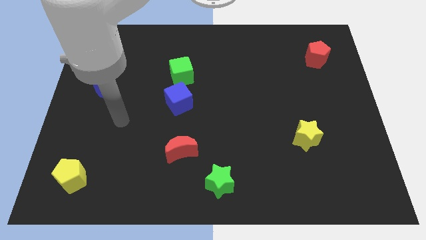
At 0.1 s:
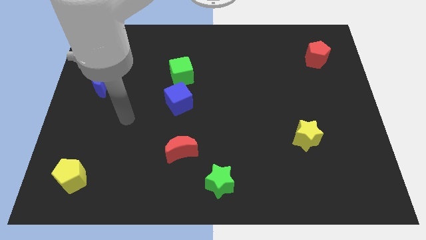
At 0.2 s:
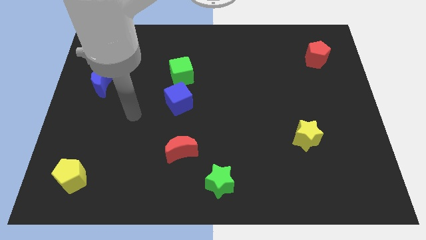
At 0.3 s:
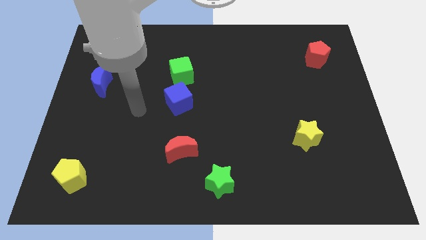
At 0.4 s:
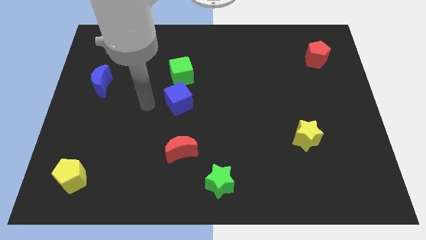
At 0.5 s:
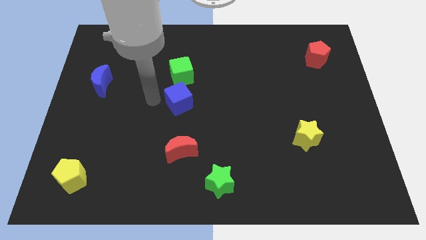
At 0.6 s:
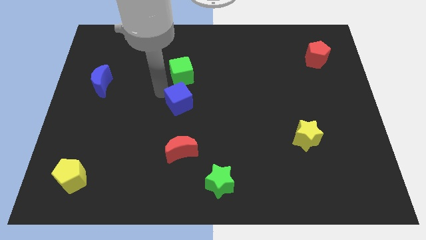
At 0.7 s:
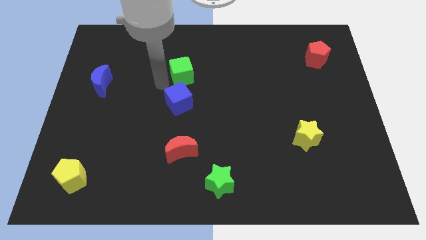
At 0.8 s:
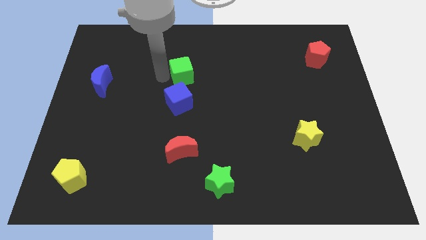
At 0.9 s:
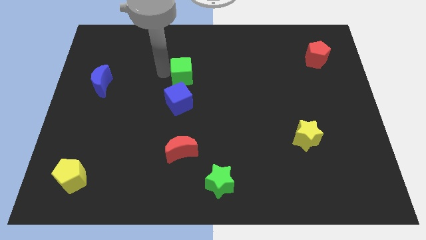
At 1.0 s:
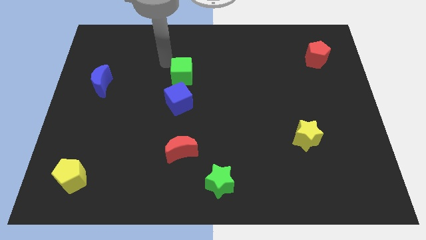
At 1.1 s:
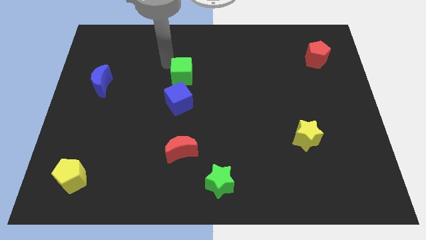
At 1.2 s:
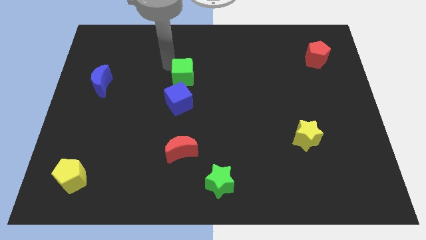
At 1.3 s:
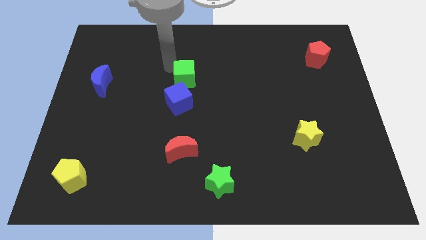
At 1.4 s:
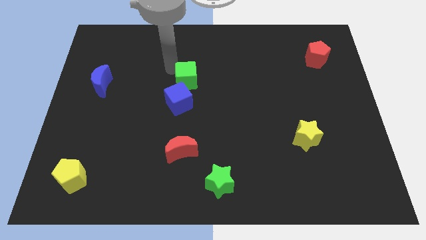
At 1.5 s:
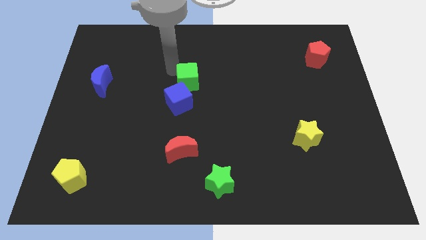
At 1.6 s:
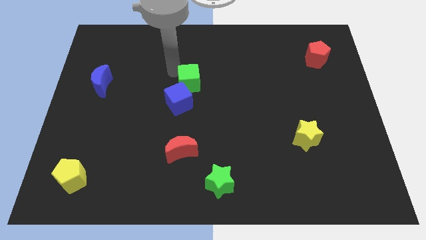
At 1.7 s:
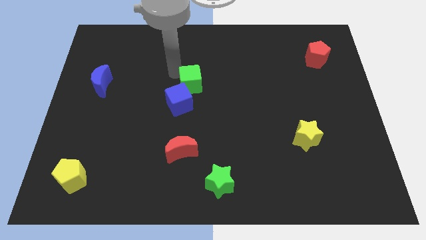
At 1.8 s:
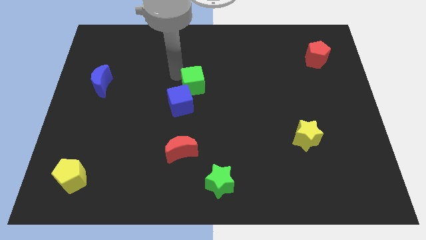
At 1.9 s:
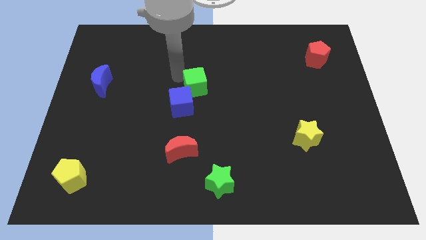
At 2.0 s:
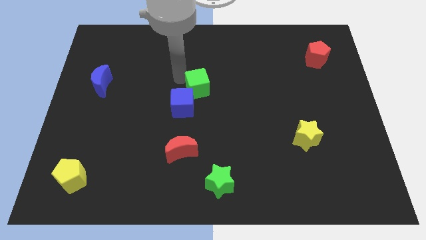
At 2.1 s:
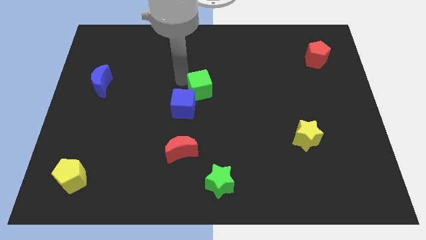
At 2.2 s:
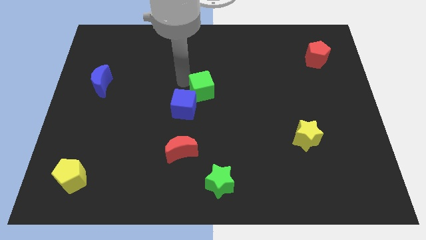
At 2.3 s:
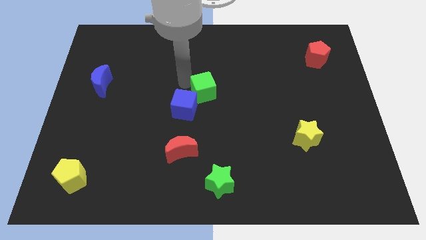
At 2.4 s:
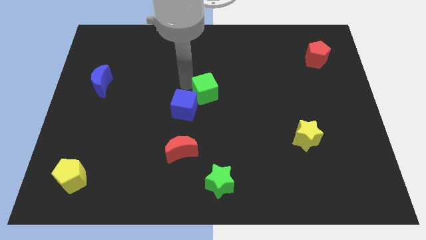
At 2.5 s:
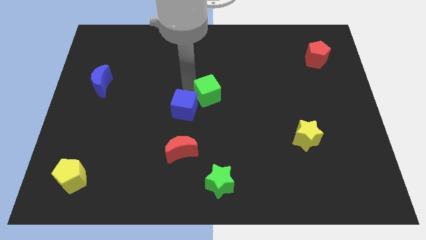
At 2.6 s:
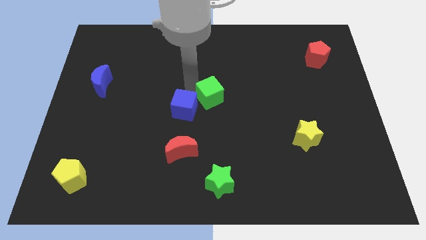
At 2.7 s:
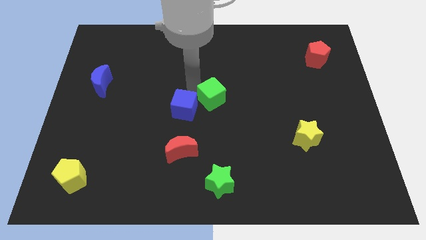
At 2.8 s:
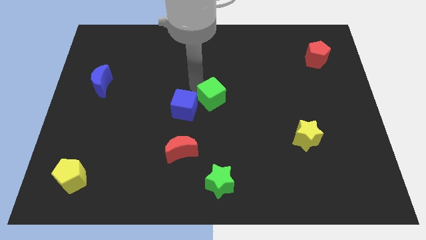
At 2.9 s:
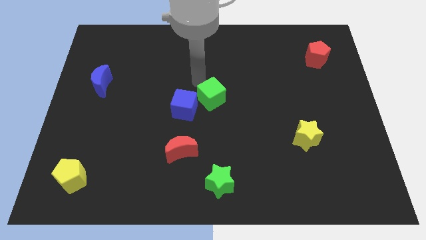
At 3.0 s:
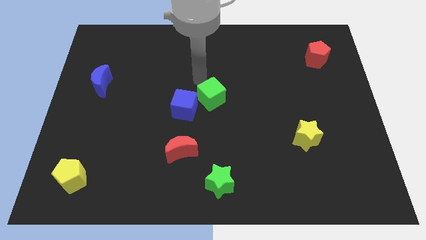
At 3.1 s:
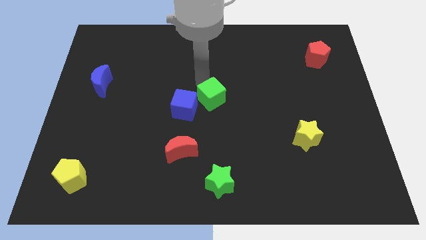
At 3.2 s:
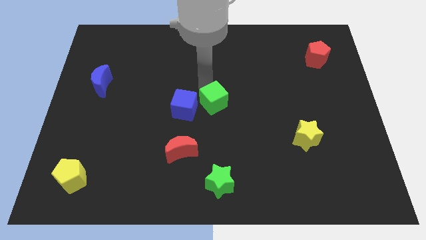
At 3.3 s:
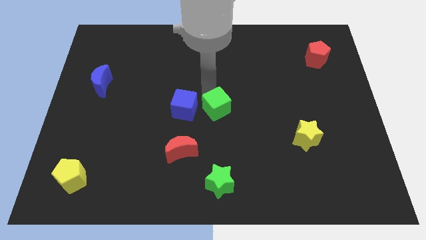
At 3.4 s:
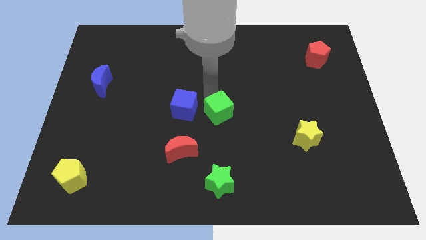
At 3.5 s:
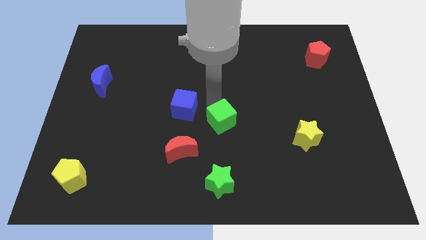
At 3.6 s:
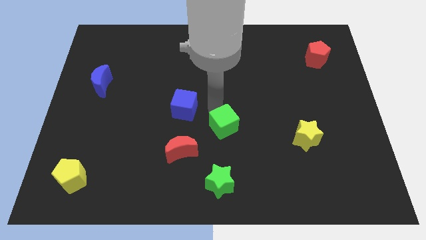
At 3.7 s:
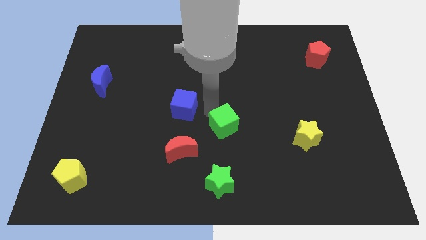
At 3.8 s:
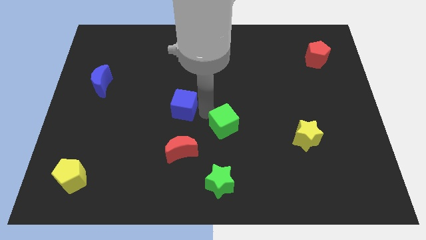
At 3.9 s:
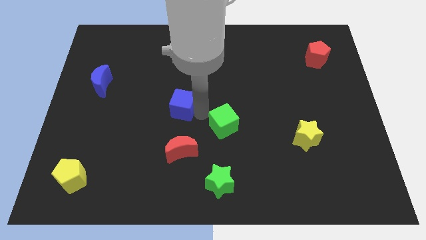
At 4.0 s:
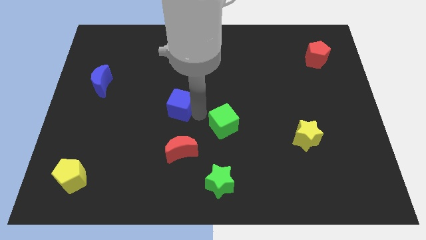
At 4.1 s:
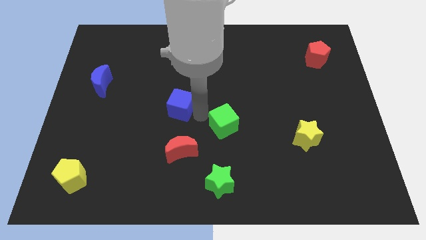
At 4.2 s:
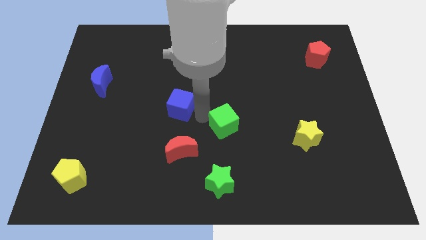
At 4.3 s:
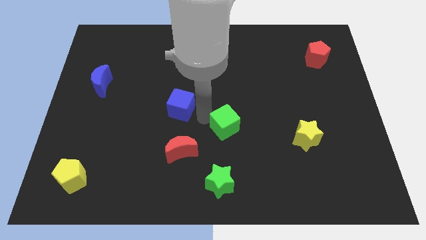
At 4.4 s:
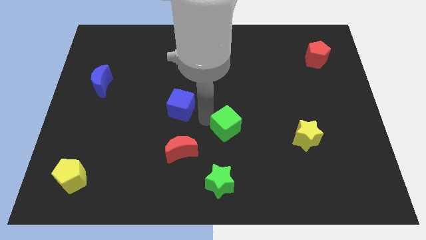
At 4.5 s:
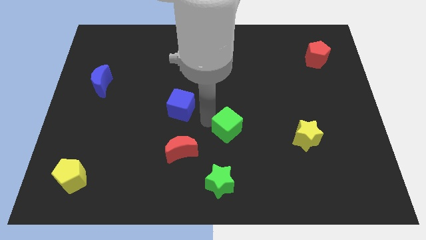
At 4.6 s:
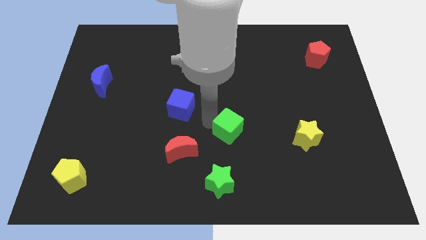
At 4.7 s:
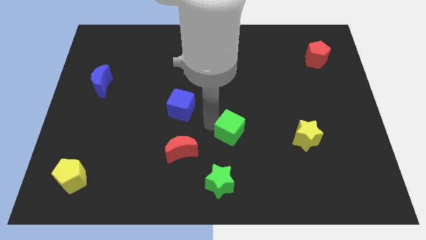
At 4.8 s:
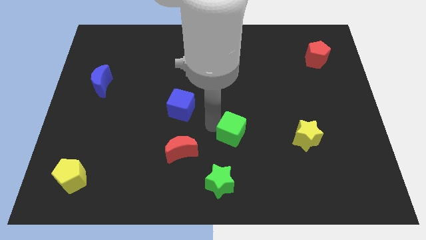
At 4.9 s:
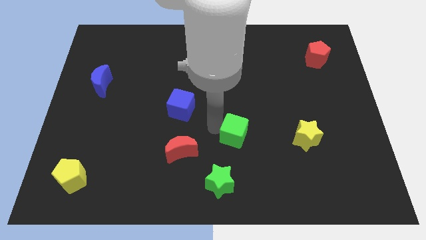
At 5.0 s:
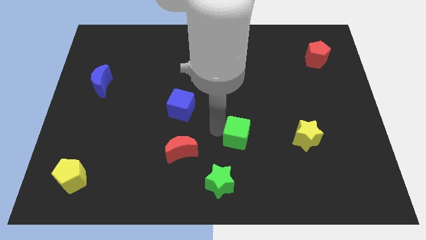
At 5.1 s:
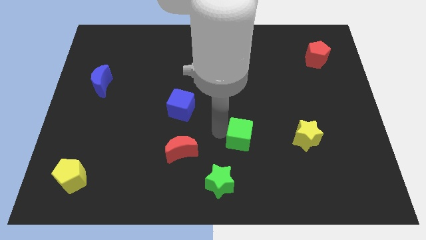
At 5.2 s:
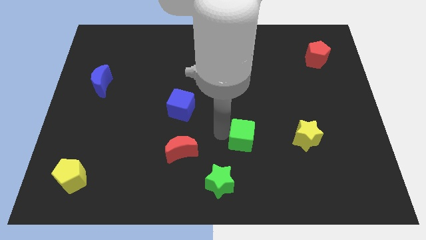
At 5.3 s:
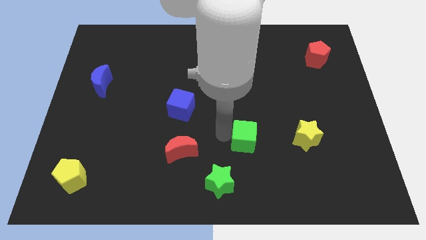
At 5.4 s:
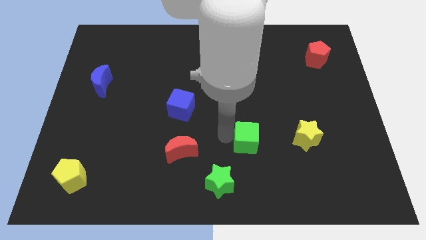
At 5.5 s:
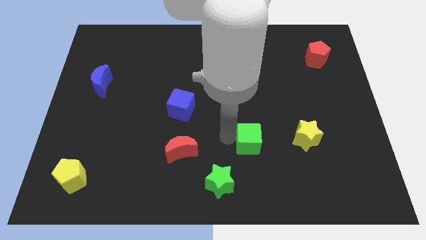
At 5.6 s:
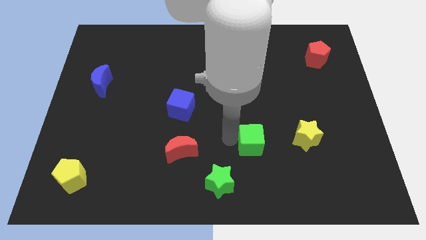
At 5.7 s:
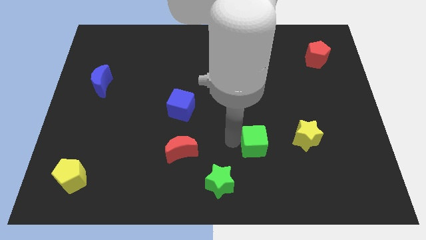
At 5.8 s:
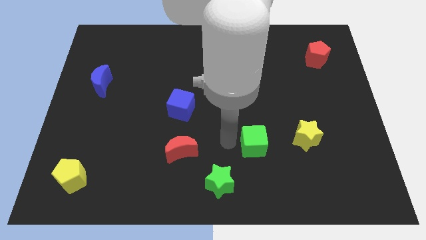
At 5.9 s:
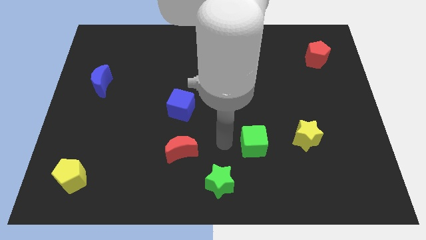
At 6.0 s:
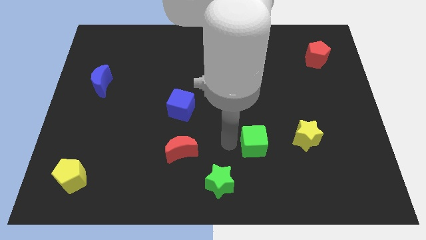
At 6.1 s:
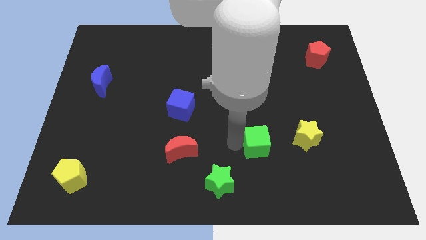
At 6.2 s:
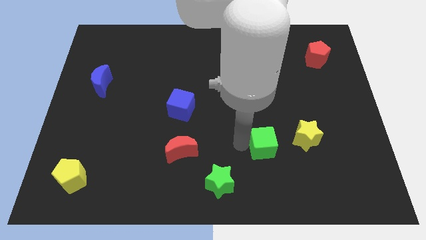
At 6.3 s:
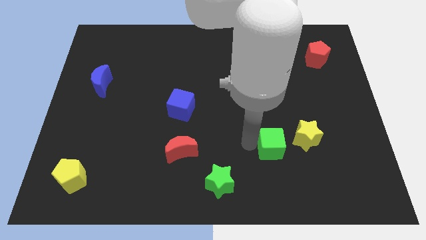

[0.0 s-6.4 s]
push the green cube to the bottom left of the yellow star

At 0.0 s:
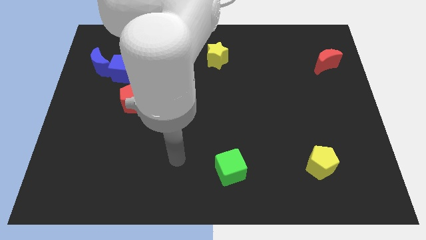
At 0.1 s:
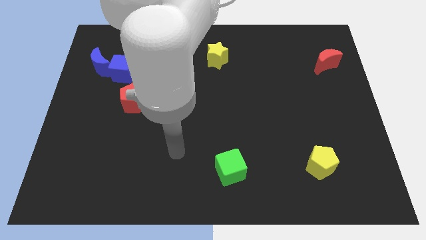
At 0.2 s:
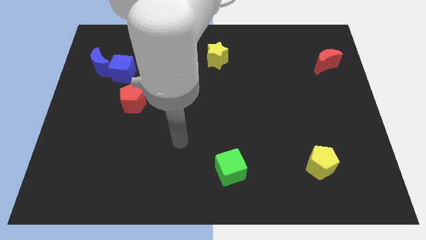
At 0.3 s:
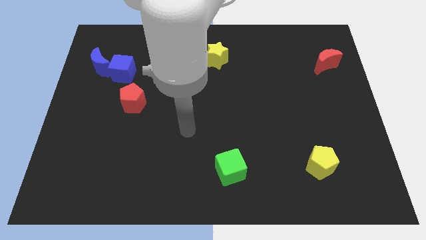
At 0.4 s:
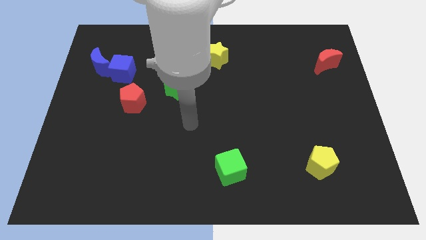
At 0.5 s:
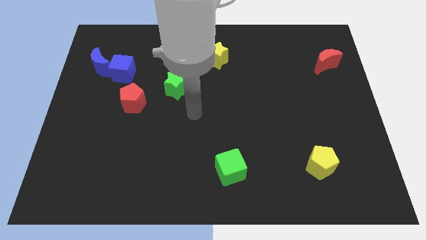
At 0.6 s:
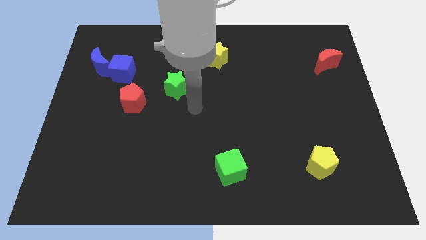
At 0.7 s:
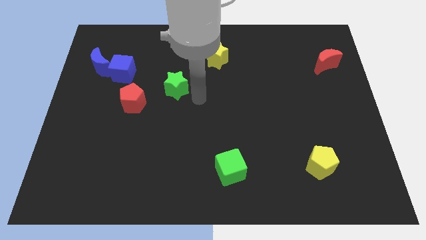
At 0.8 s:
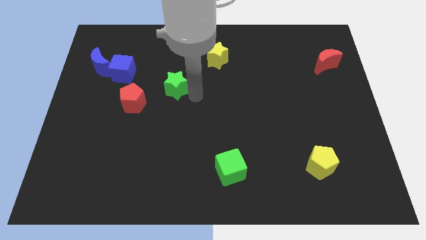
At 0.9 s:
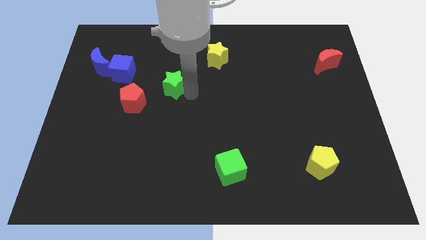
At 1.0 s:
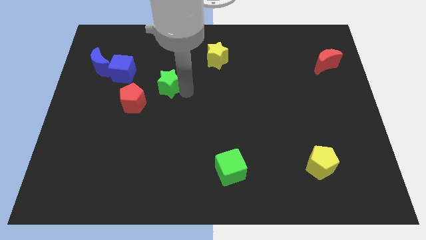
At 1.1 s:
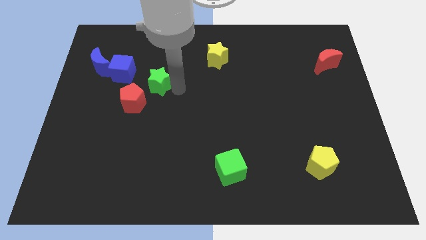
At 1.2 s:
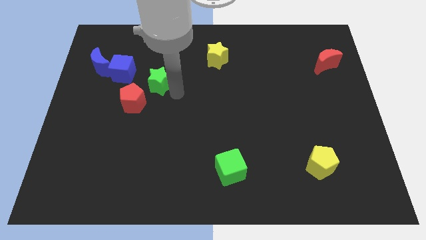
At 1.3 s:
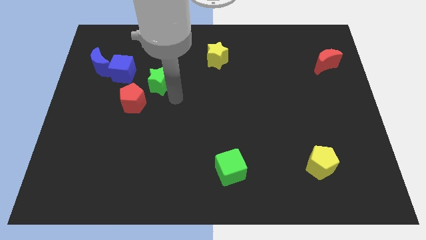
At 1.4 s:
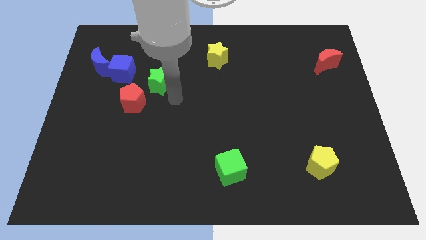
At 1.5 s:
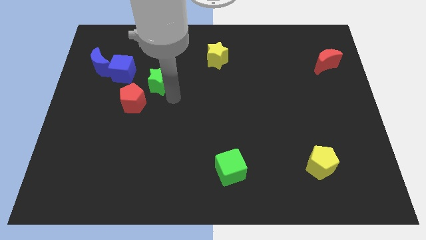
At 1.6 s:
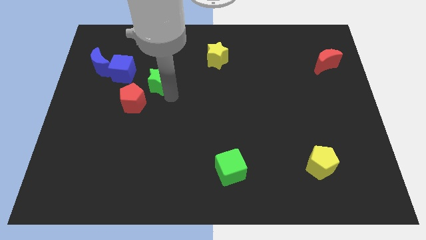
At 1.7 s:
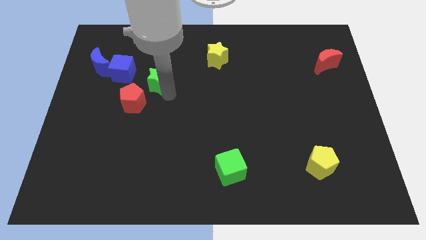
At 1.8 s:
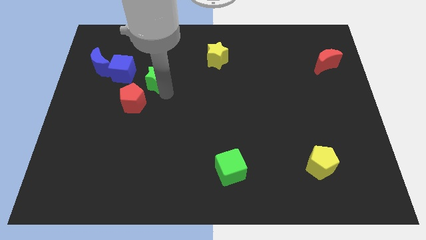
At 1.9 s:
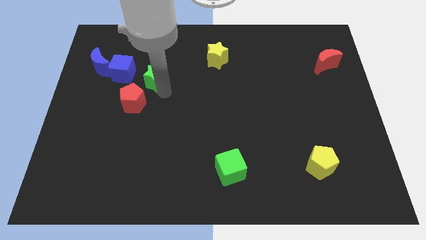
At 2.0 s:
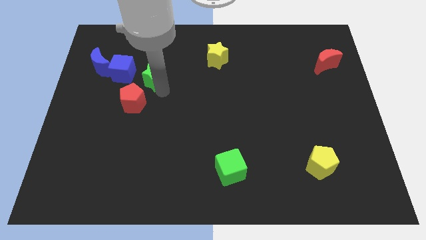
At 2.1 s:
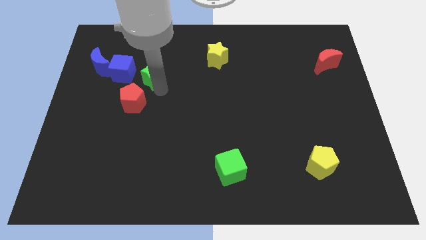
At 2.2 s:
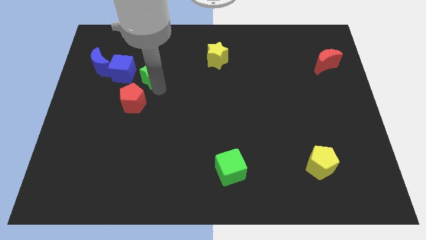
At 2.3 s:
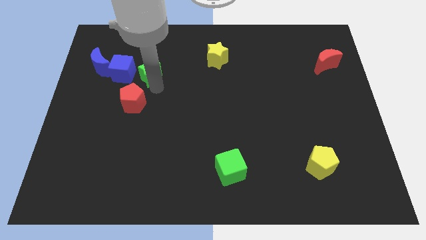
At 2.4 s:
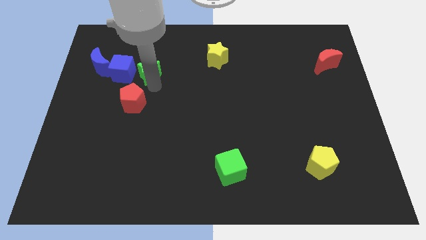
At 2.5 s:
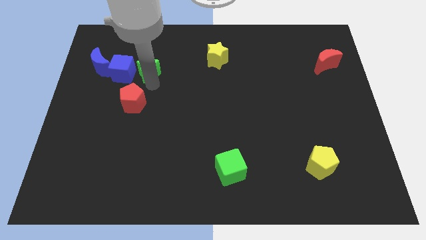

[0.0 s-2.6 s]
move the green star to the top right of the blue cube
